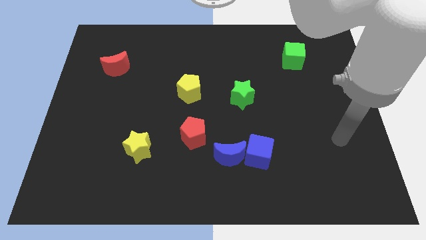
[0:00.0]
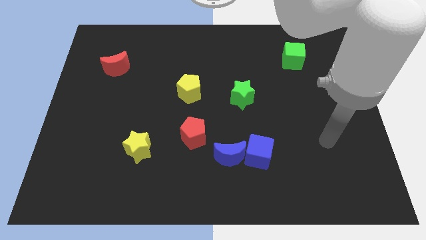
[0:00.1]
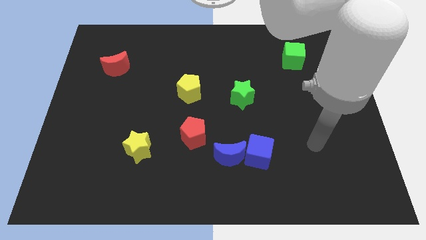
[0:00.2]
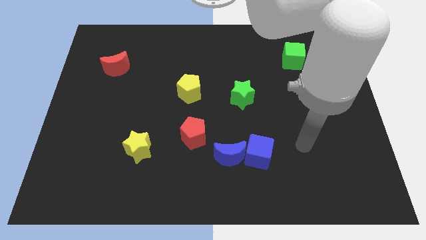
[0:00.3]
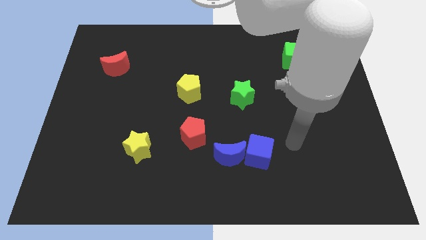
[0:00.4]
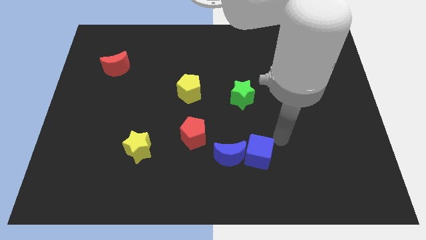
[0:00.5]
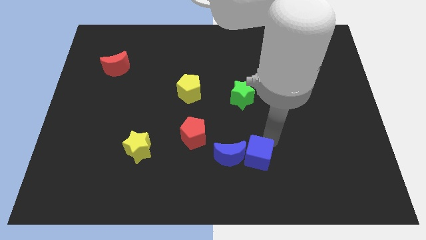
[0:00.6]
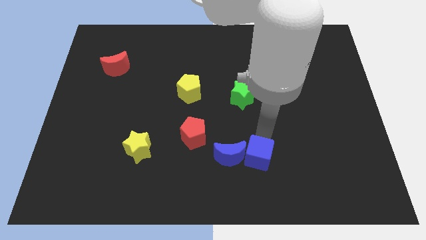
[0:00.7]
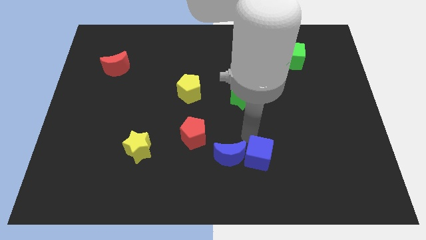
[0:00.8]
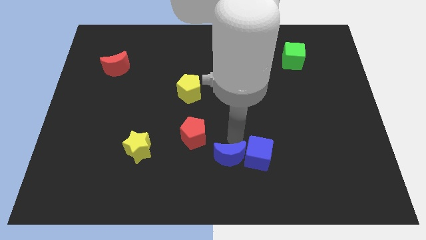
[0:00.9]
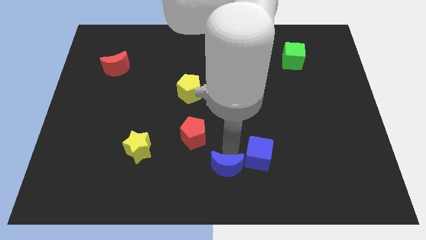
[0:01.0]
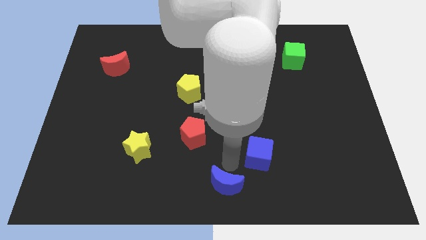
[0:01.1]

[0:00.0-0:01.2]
move the blue cube away from the blue moon

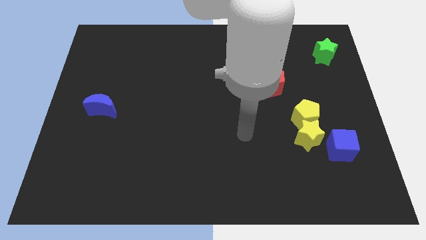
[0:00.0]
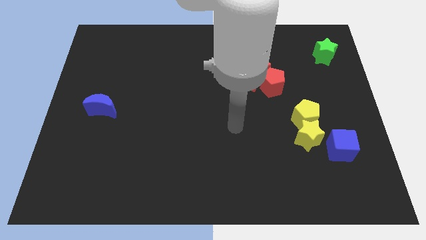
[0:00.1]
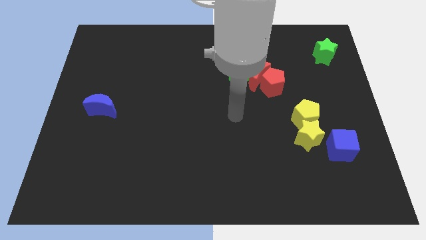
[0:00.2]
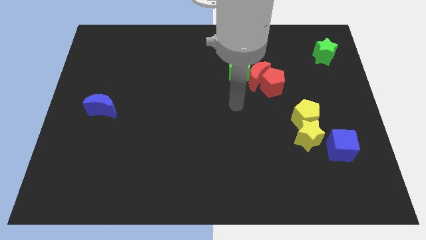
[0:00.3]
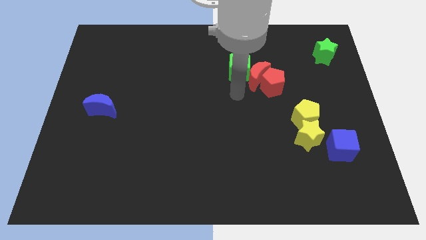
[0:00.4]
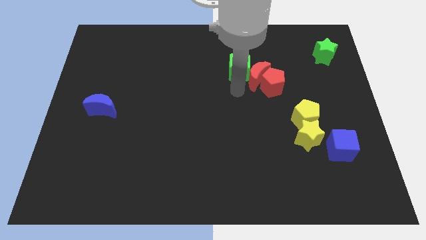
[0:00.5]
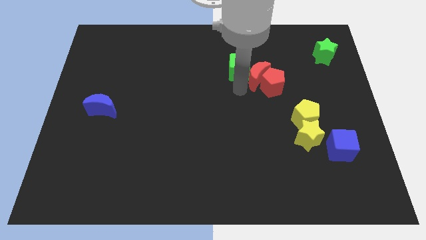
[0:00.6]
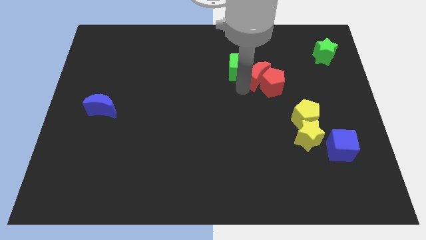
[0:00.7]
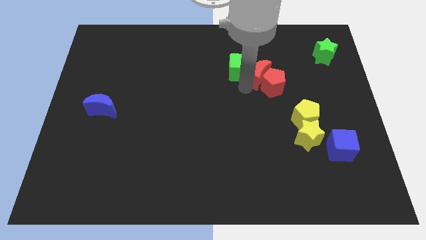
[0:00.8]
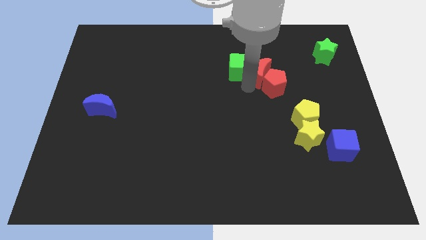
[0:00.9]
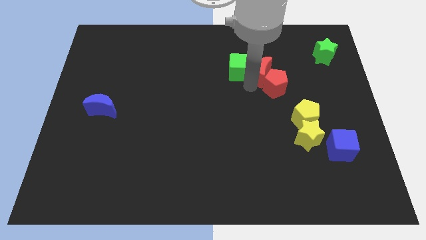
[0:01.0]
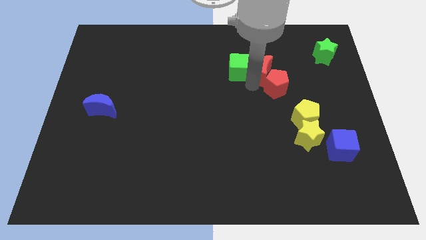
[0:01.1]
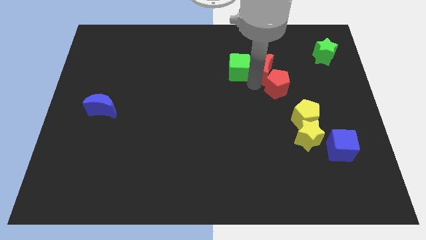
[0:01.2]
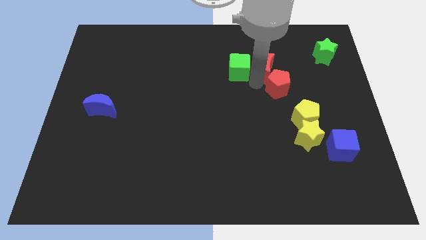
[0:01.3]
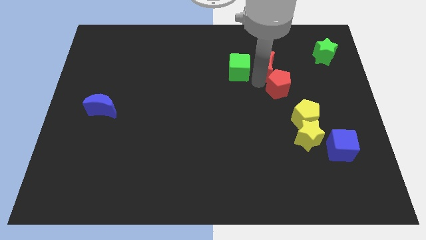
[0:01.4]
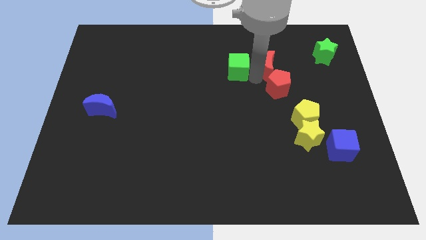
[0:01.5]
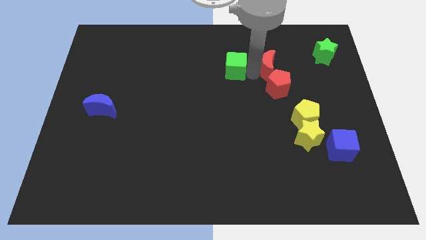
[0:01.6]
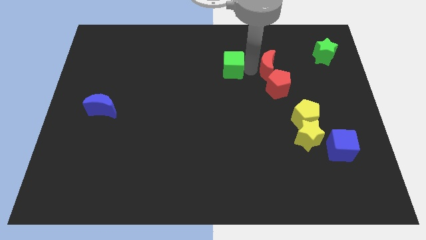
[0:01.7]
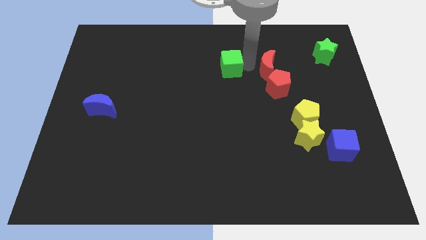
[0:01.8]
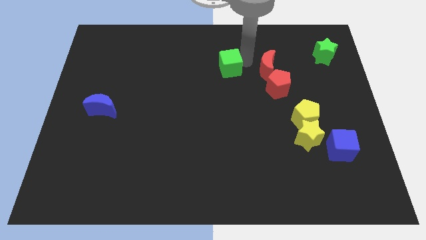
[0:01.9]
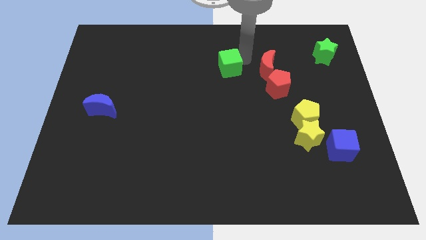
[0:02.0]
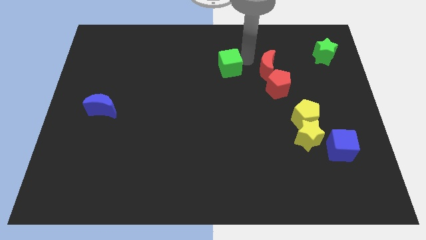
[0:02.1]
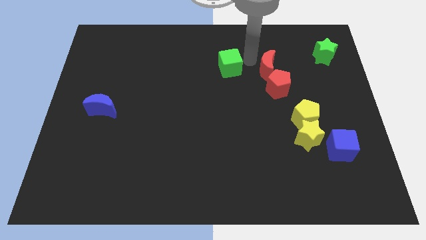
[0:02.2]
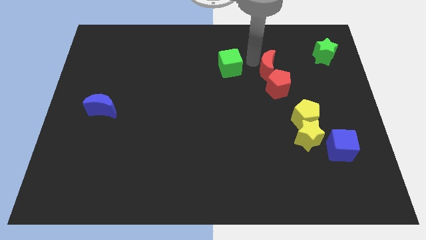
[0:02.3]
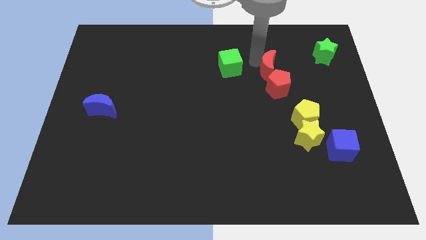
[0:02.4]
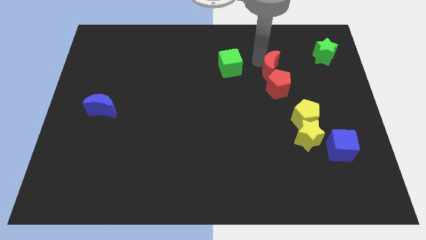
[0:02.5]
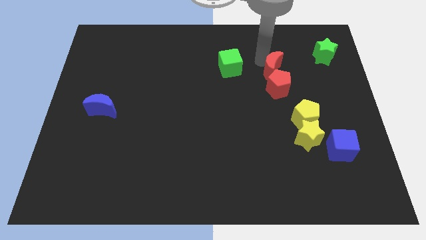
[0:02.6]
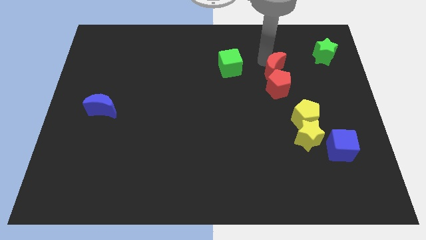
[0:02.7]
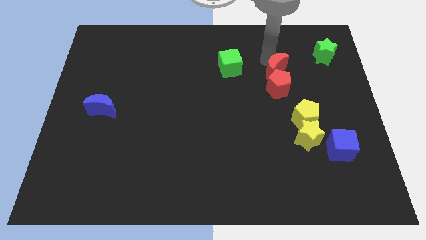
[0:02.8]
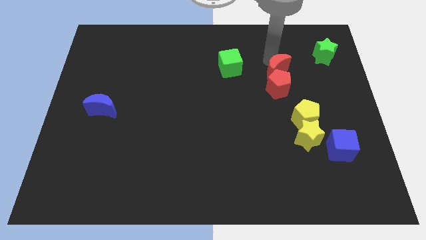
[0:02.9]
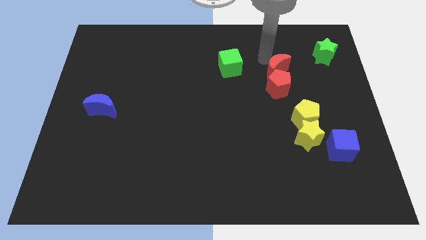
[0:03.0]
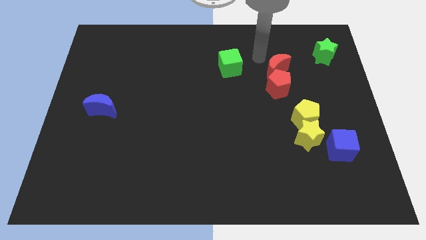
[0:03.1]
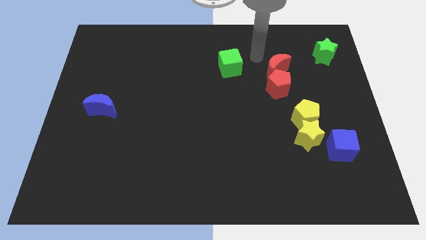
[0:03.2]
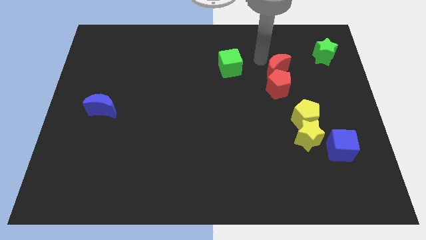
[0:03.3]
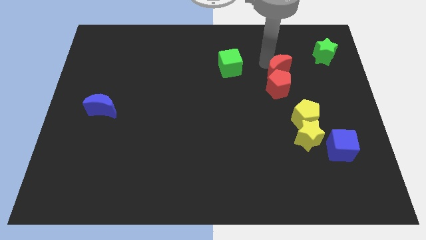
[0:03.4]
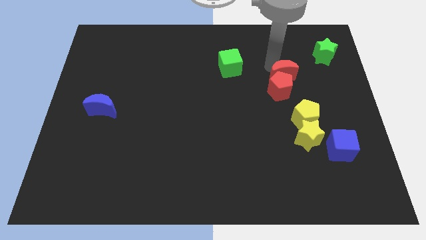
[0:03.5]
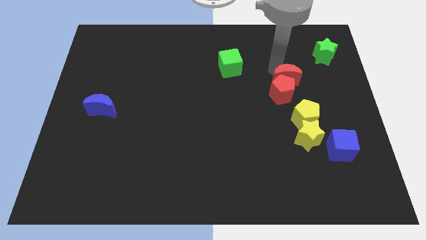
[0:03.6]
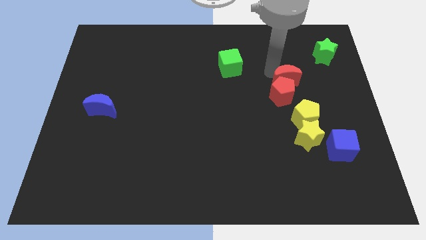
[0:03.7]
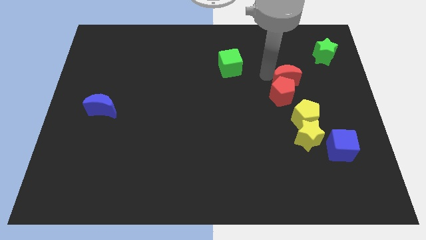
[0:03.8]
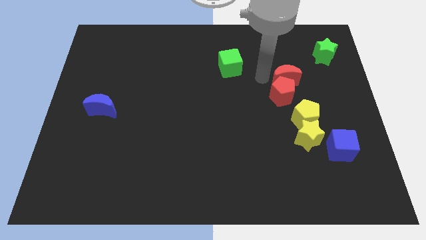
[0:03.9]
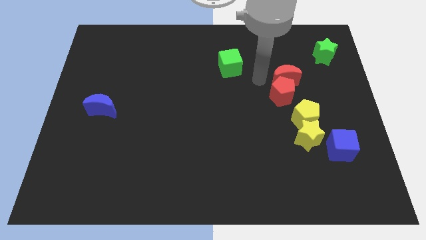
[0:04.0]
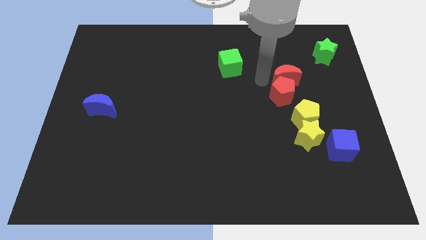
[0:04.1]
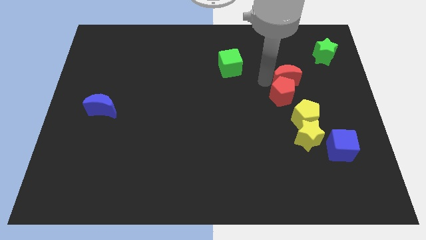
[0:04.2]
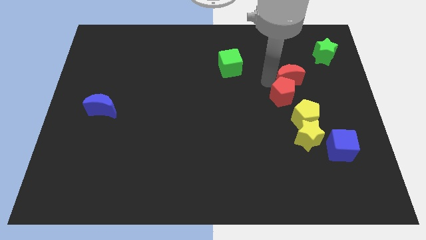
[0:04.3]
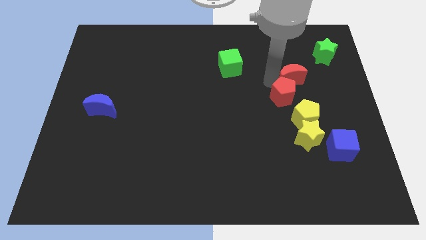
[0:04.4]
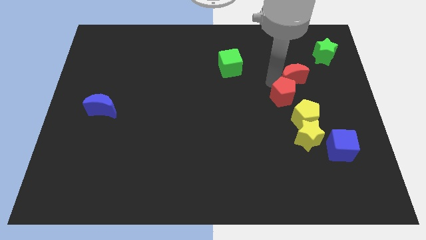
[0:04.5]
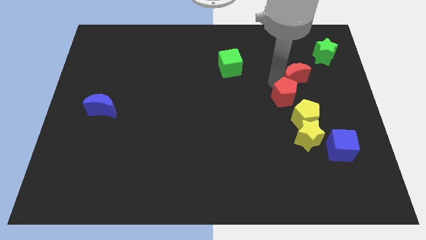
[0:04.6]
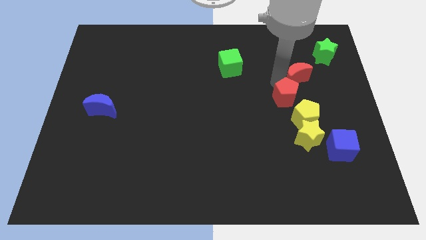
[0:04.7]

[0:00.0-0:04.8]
move the red moon away from the red pentagon and green cube

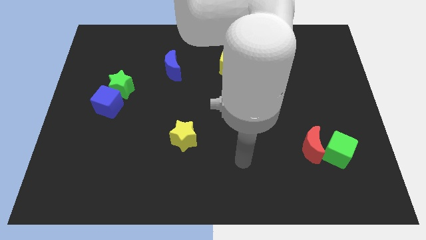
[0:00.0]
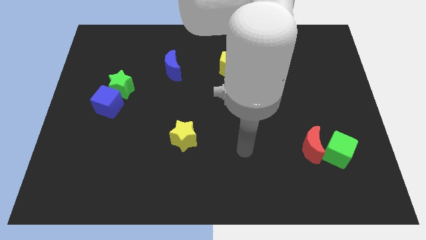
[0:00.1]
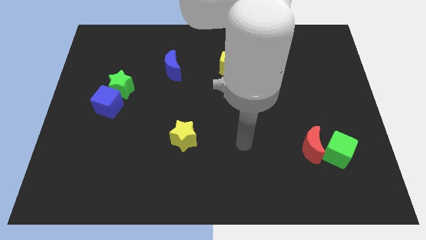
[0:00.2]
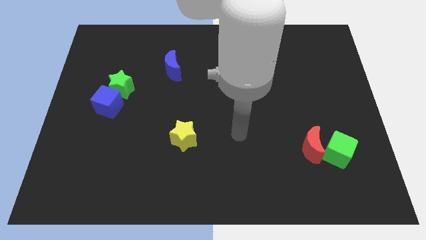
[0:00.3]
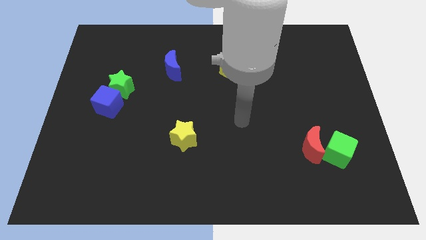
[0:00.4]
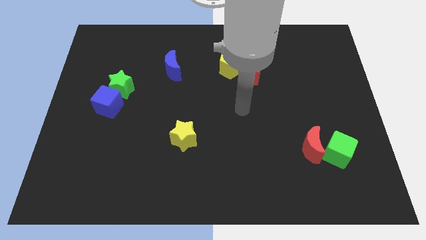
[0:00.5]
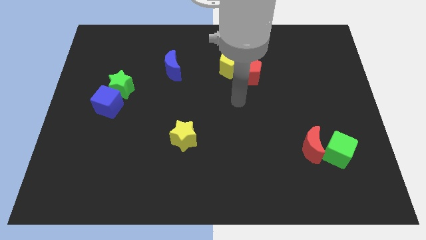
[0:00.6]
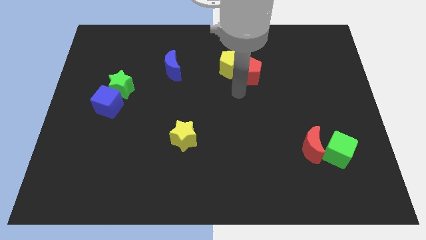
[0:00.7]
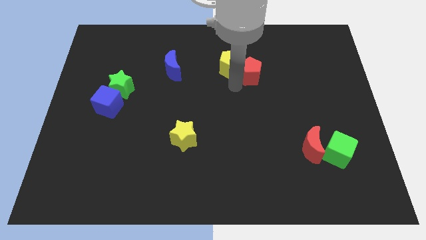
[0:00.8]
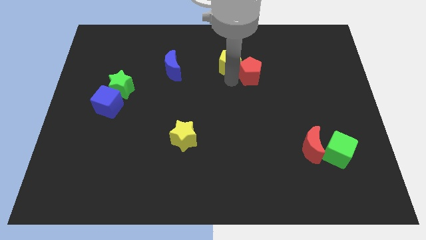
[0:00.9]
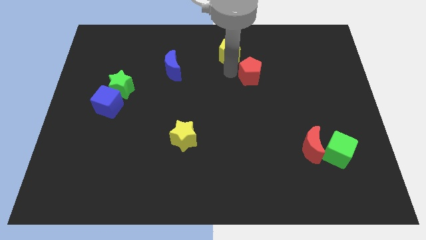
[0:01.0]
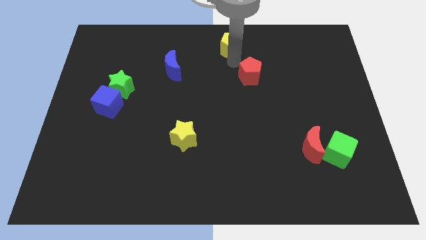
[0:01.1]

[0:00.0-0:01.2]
move the red pentagon away from the yellow pentagon

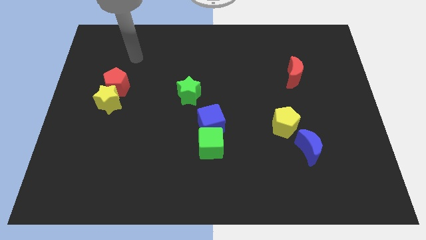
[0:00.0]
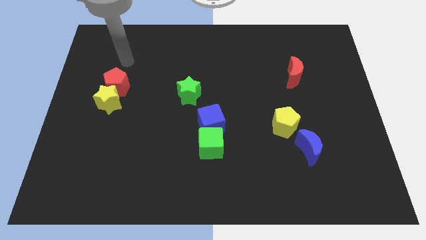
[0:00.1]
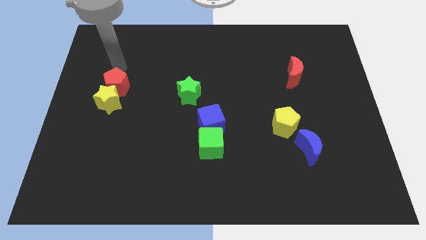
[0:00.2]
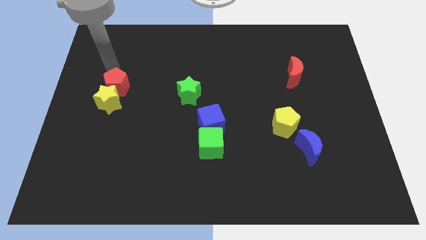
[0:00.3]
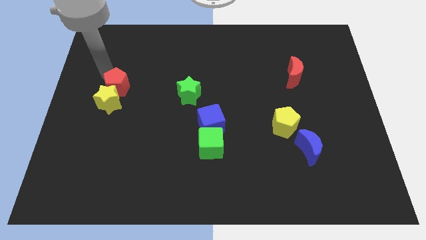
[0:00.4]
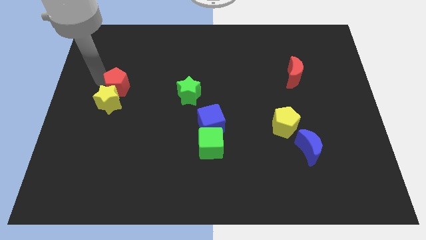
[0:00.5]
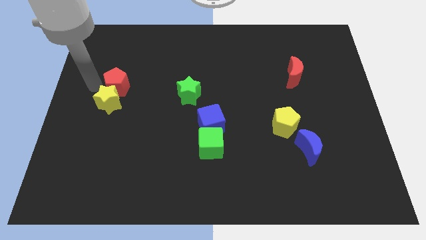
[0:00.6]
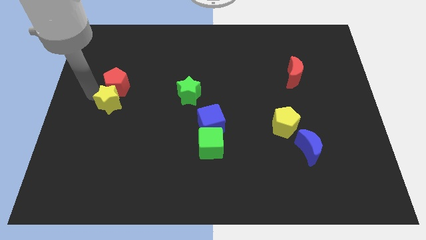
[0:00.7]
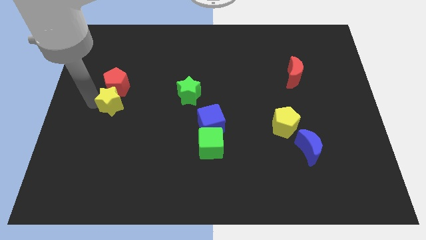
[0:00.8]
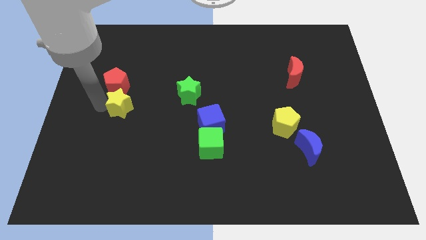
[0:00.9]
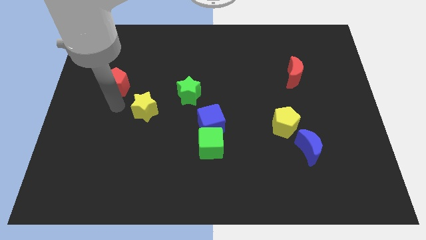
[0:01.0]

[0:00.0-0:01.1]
move the red pentagon away from the yellow star

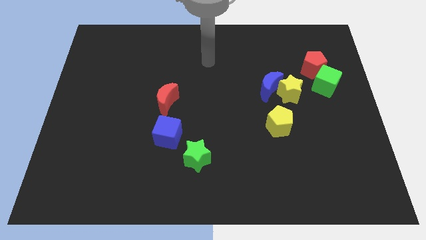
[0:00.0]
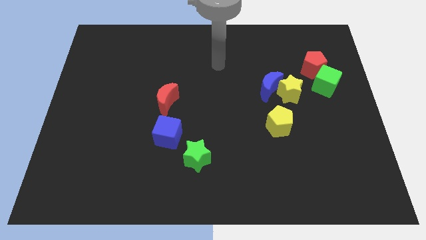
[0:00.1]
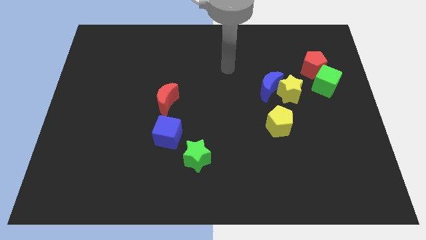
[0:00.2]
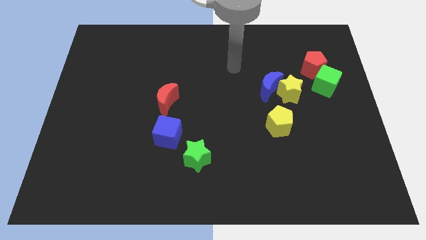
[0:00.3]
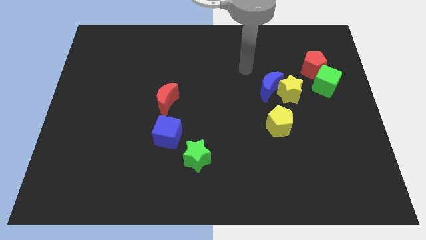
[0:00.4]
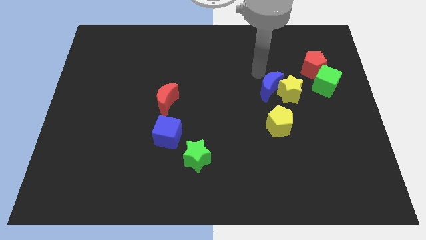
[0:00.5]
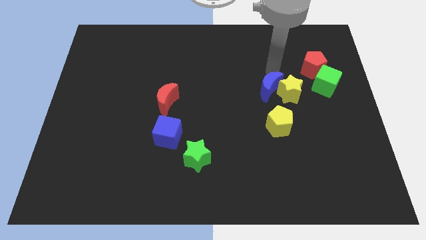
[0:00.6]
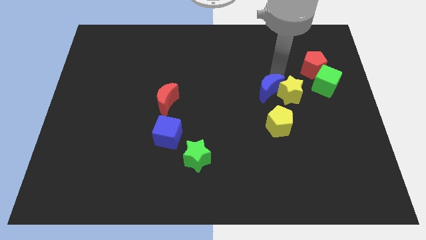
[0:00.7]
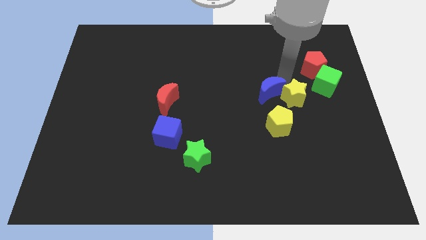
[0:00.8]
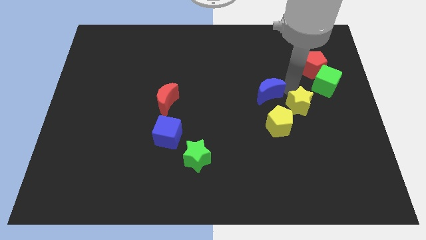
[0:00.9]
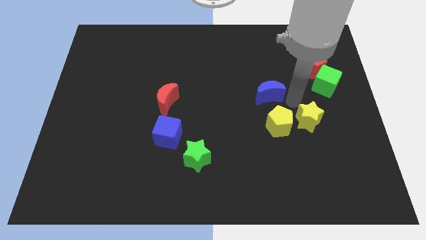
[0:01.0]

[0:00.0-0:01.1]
pull the blue moon apart from the yellow star
